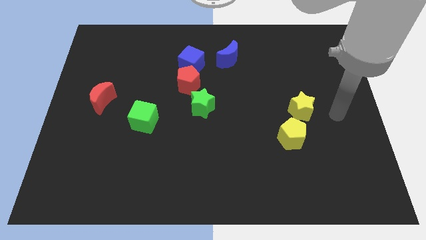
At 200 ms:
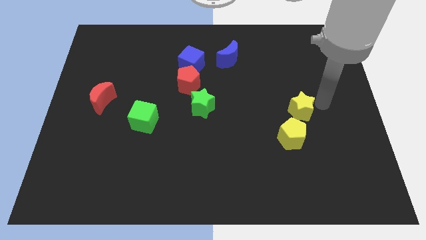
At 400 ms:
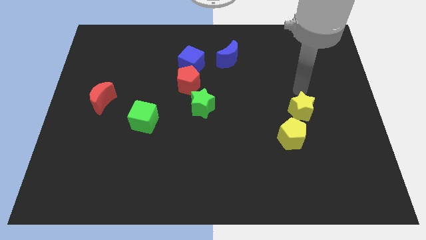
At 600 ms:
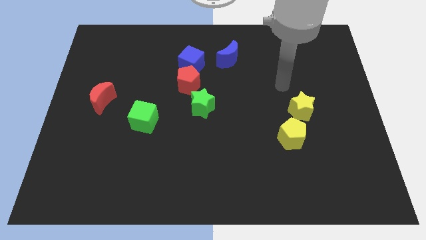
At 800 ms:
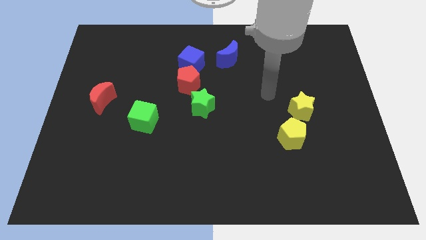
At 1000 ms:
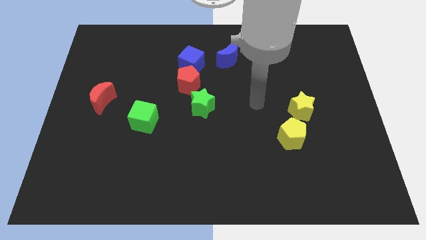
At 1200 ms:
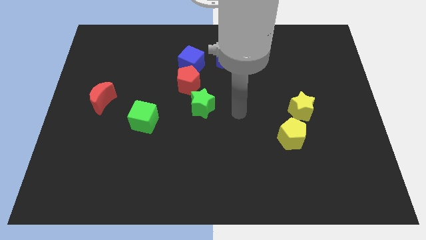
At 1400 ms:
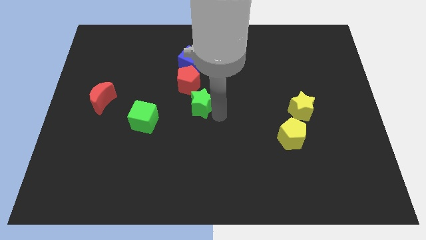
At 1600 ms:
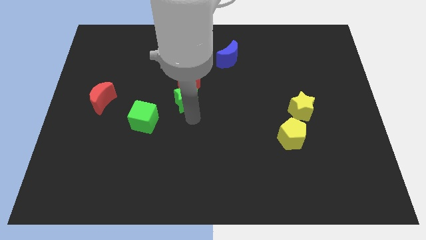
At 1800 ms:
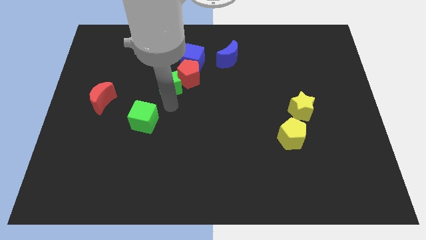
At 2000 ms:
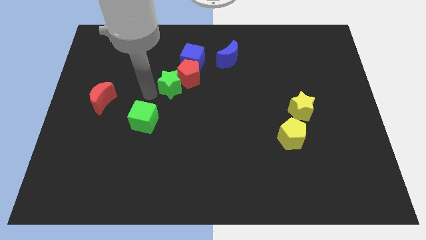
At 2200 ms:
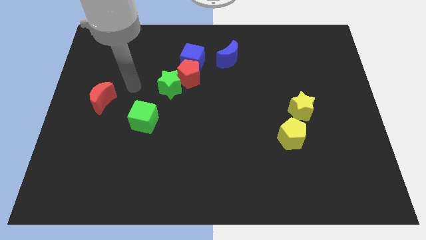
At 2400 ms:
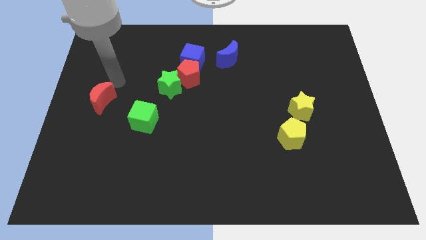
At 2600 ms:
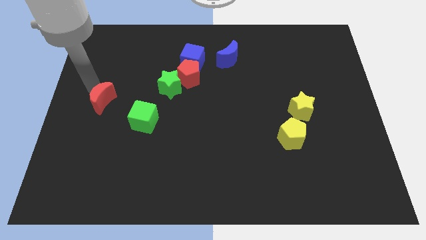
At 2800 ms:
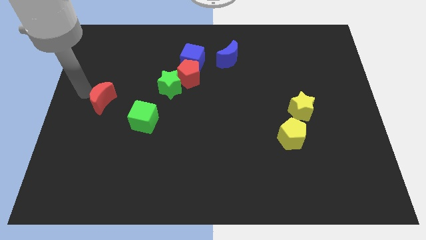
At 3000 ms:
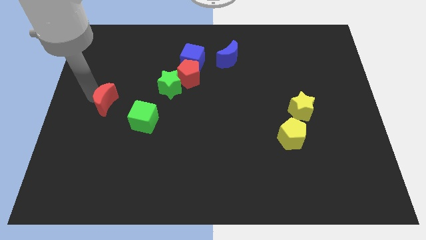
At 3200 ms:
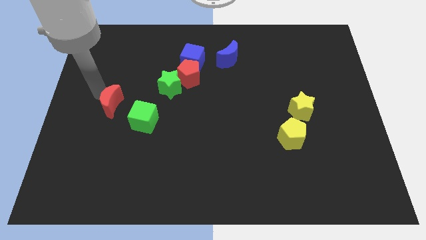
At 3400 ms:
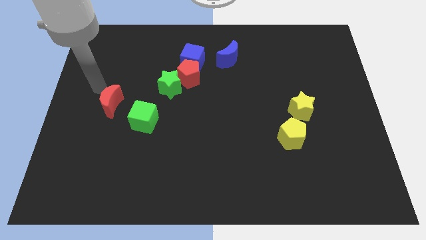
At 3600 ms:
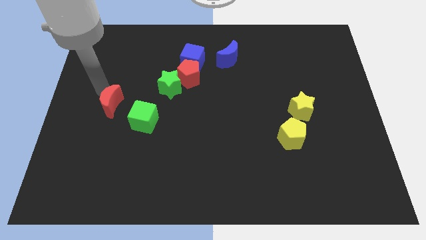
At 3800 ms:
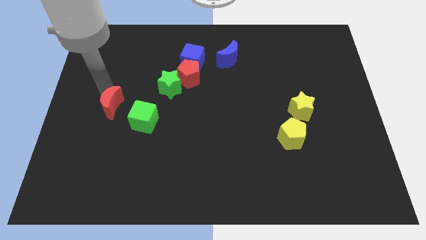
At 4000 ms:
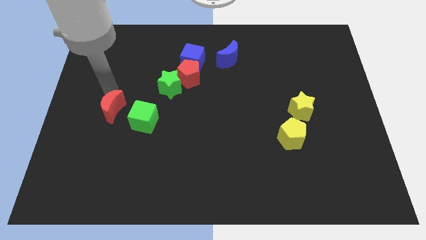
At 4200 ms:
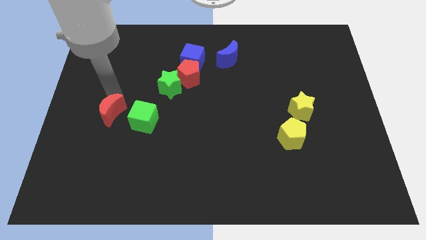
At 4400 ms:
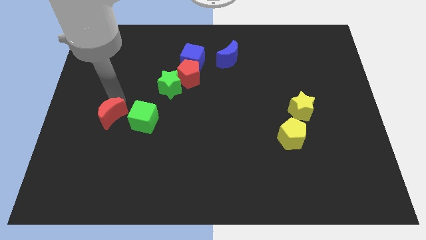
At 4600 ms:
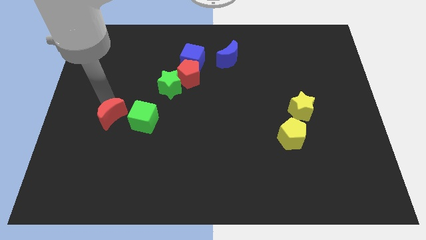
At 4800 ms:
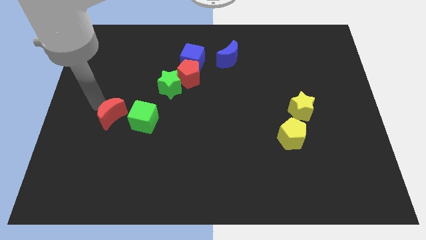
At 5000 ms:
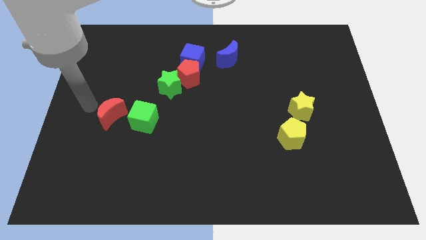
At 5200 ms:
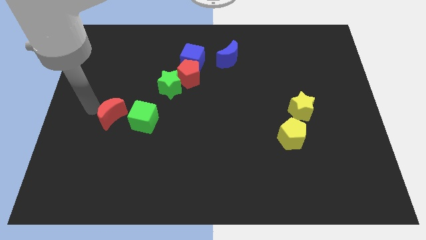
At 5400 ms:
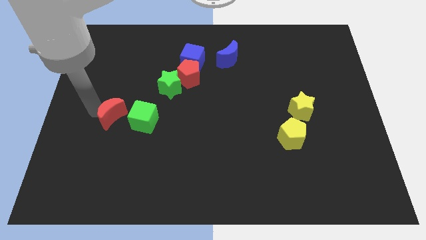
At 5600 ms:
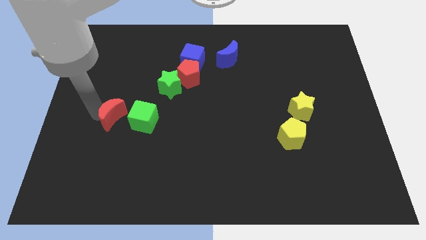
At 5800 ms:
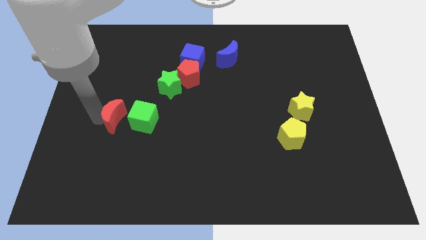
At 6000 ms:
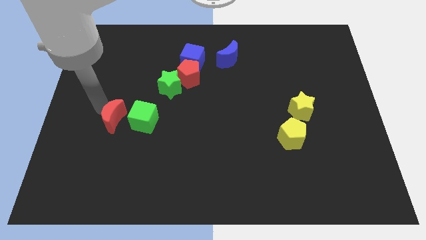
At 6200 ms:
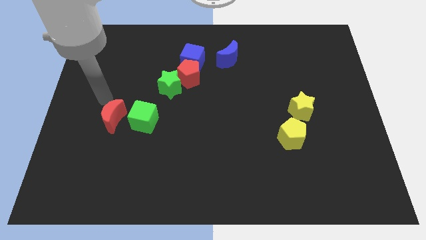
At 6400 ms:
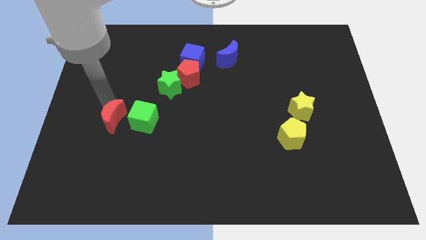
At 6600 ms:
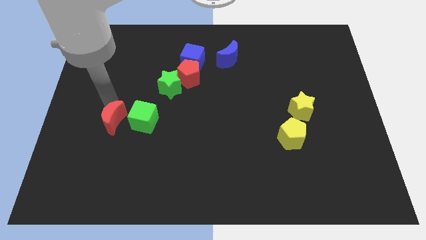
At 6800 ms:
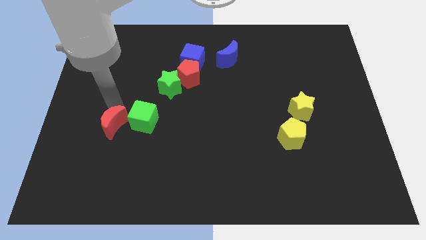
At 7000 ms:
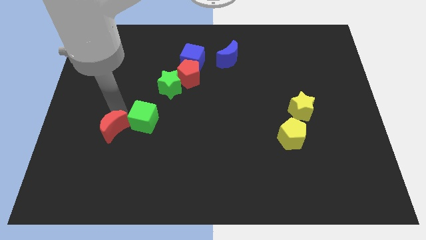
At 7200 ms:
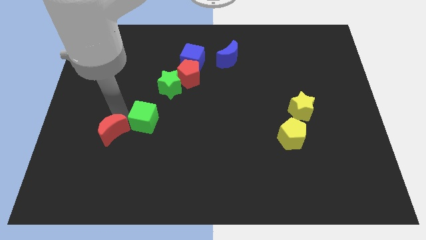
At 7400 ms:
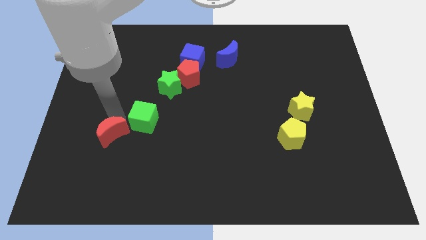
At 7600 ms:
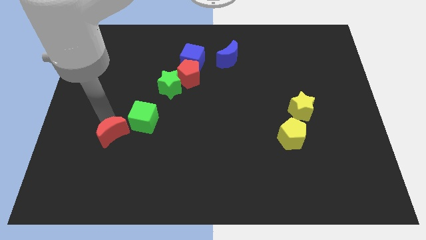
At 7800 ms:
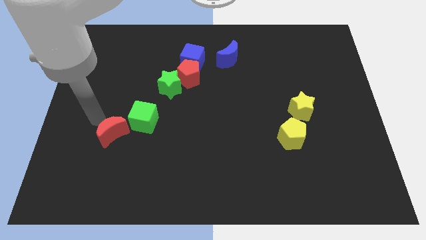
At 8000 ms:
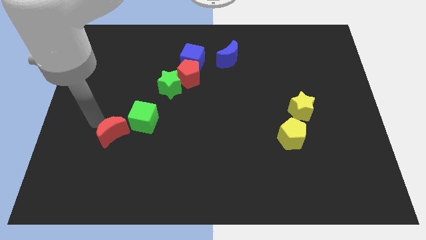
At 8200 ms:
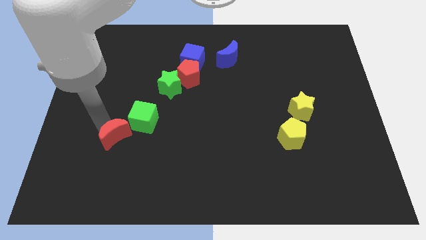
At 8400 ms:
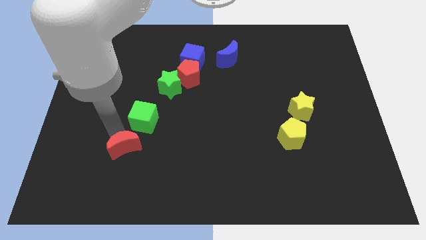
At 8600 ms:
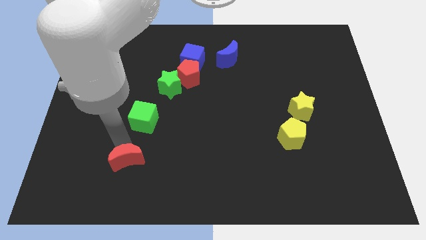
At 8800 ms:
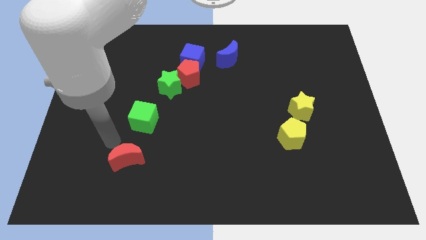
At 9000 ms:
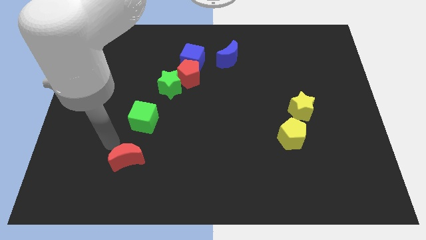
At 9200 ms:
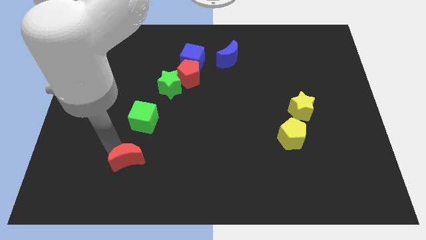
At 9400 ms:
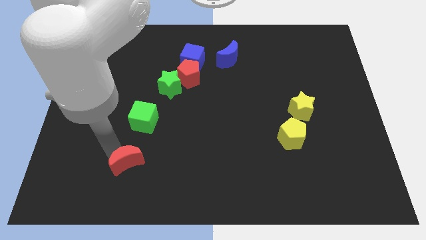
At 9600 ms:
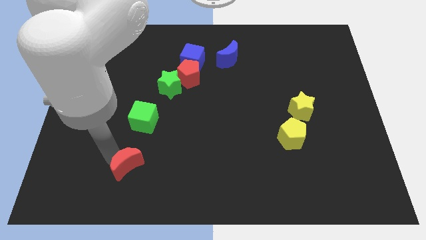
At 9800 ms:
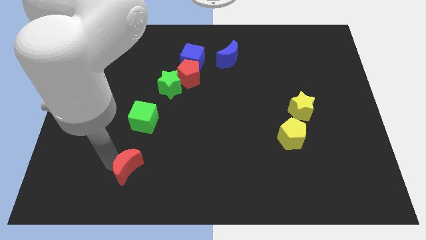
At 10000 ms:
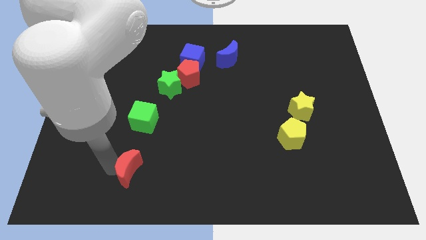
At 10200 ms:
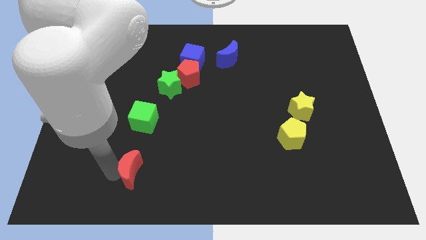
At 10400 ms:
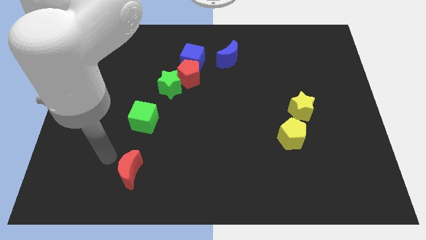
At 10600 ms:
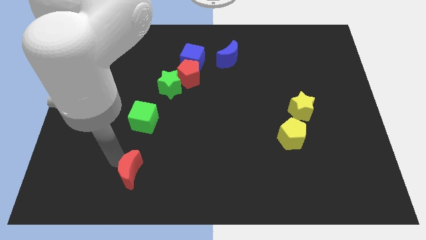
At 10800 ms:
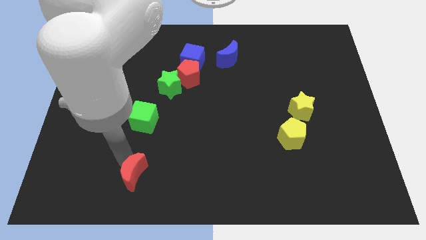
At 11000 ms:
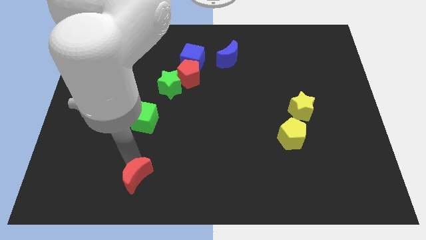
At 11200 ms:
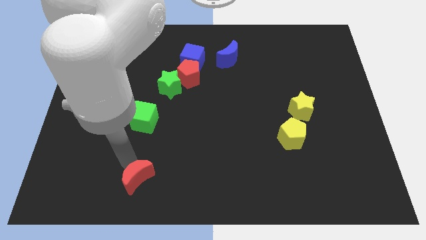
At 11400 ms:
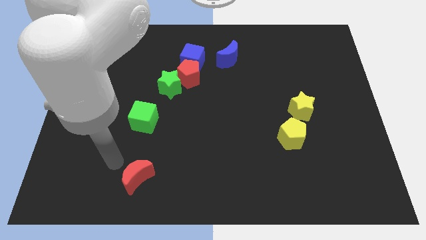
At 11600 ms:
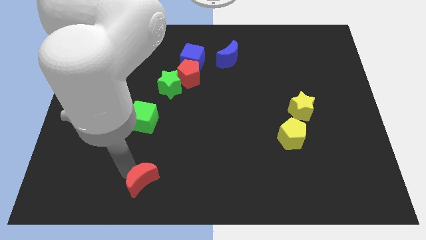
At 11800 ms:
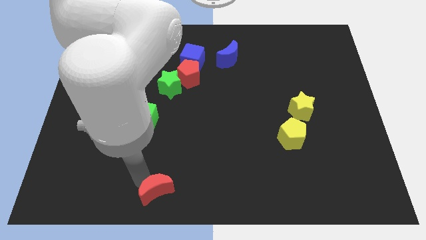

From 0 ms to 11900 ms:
slide the red moon to the bottom side
